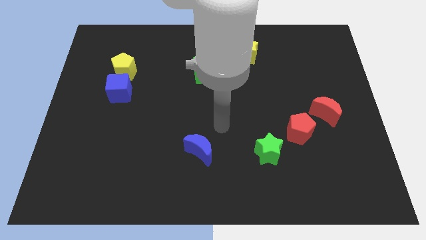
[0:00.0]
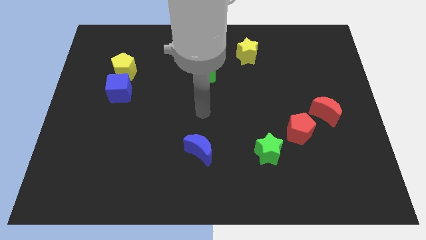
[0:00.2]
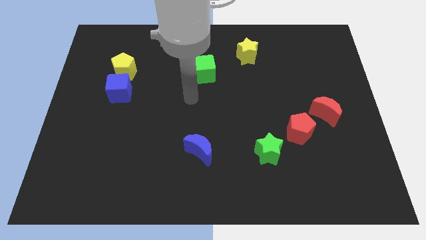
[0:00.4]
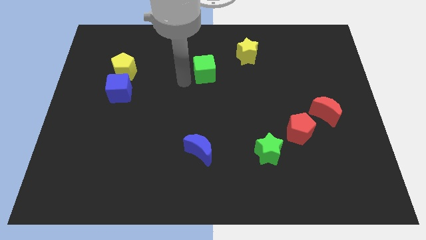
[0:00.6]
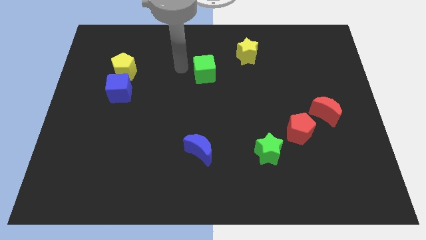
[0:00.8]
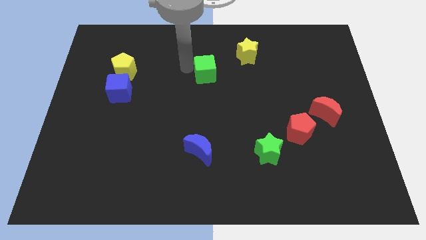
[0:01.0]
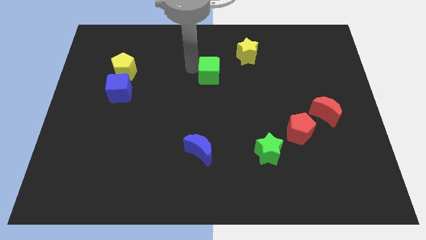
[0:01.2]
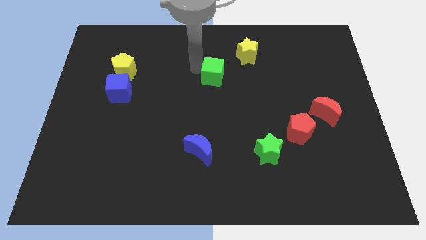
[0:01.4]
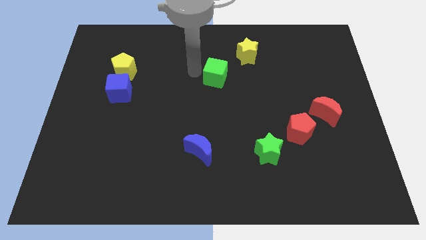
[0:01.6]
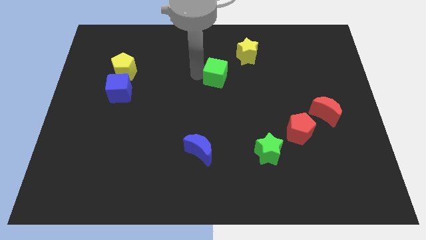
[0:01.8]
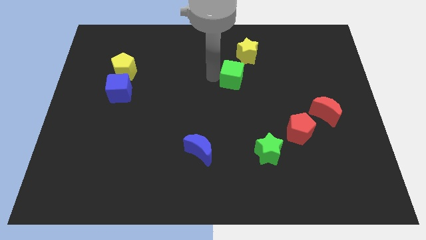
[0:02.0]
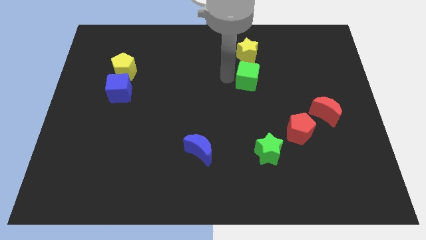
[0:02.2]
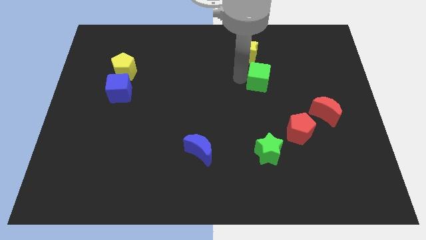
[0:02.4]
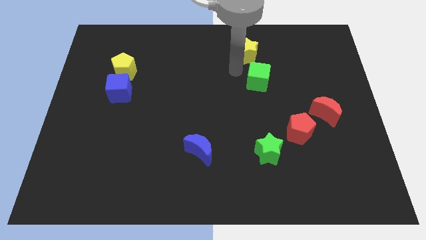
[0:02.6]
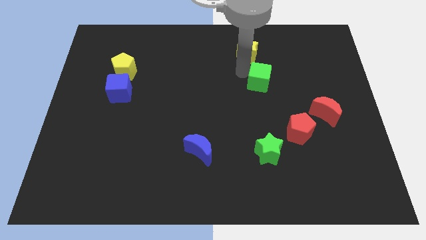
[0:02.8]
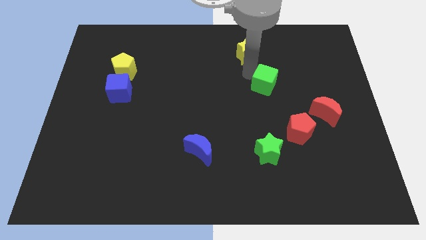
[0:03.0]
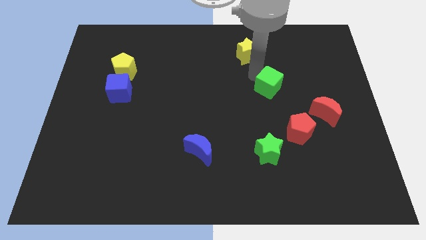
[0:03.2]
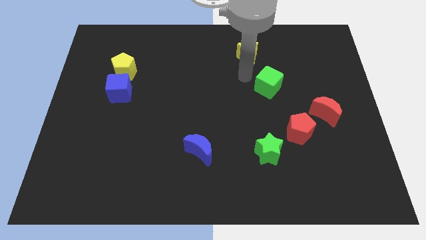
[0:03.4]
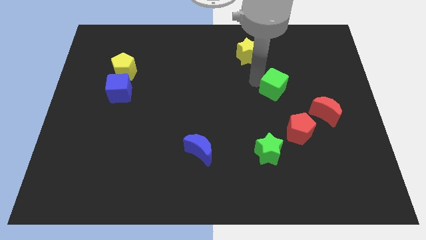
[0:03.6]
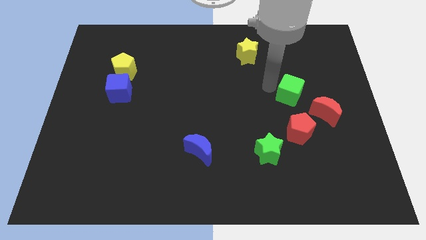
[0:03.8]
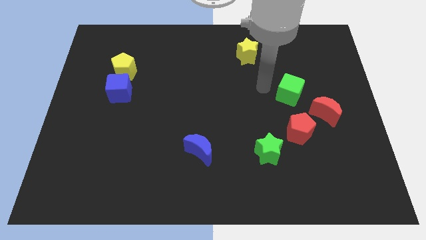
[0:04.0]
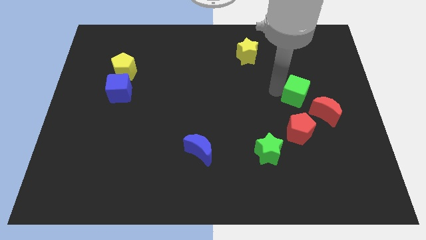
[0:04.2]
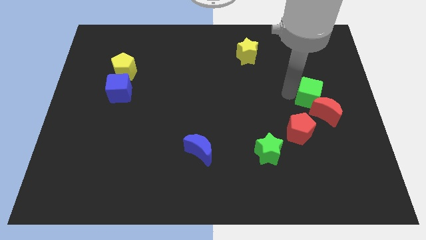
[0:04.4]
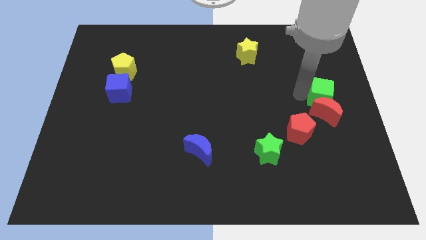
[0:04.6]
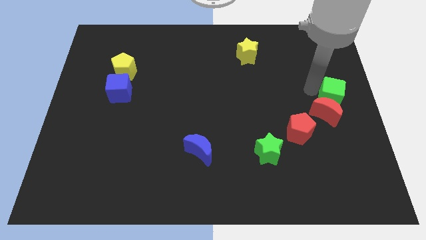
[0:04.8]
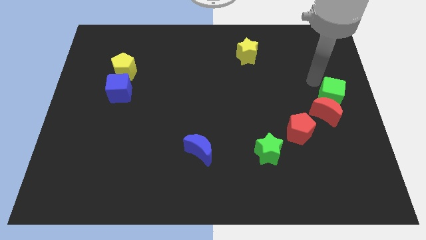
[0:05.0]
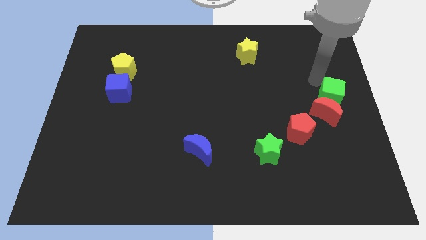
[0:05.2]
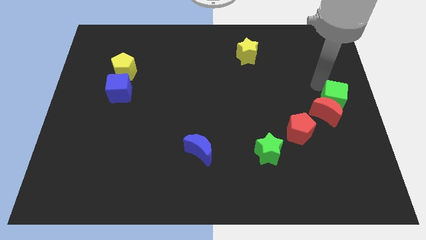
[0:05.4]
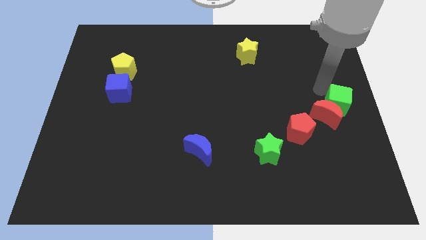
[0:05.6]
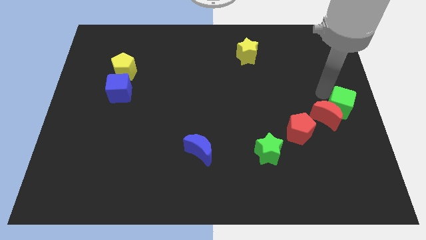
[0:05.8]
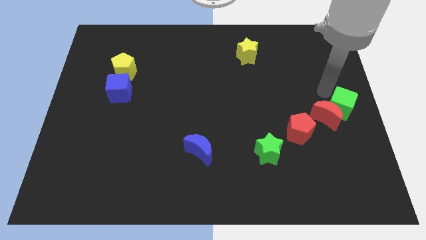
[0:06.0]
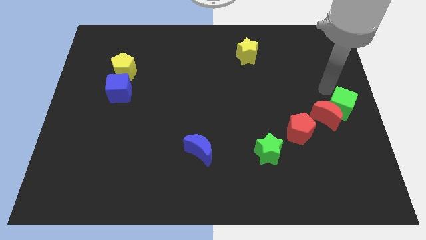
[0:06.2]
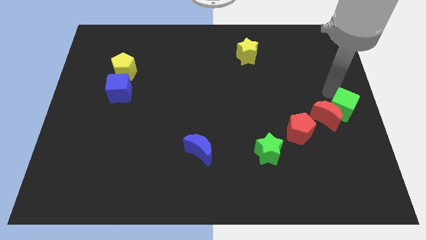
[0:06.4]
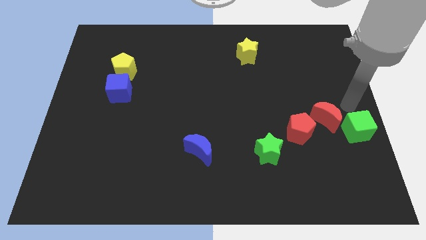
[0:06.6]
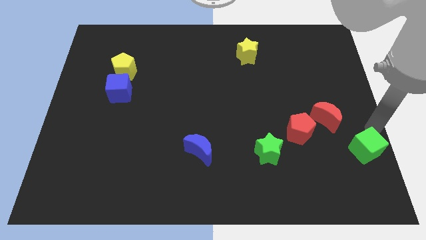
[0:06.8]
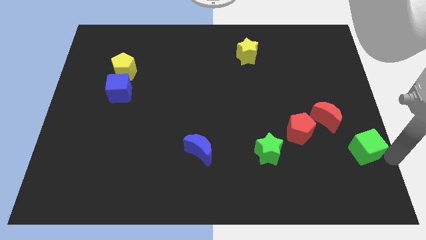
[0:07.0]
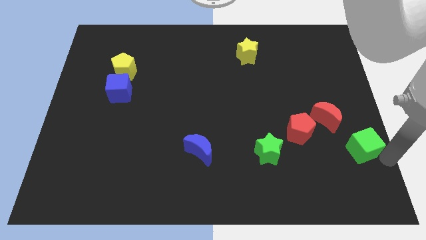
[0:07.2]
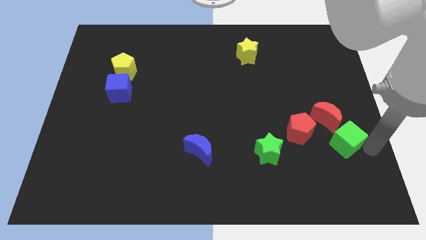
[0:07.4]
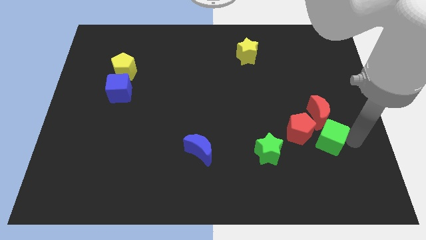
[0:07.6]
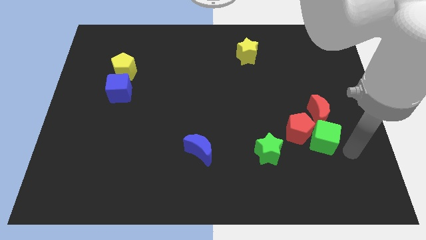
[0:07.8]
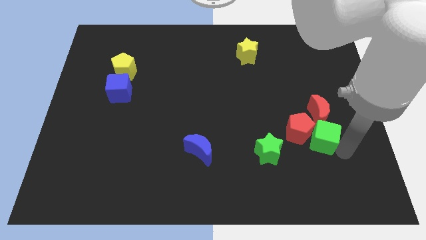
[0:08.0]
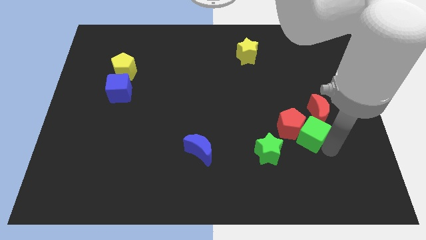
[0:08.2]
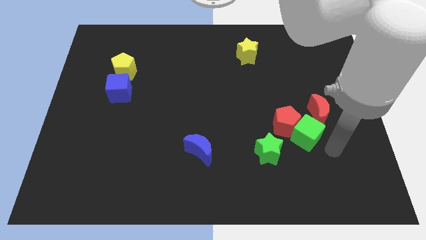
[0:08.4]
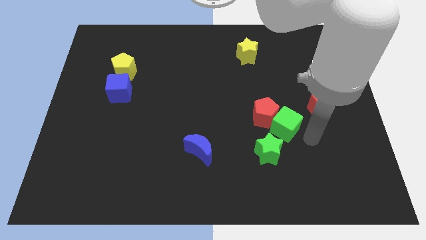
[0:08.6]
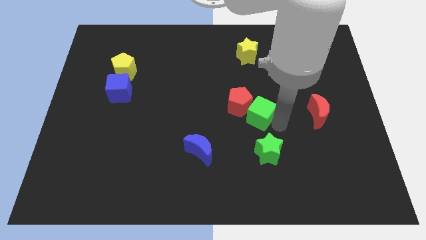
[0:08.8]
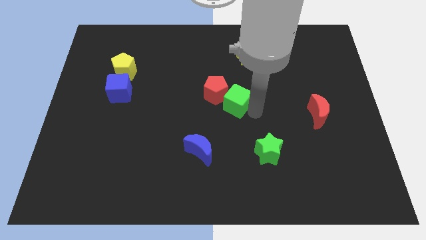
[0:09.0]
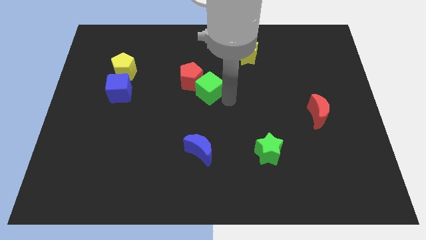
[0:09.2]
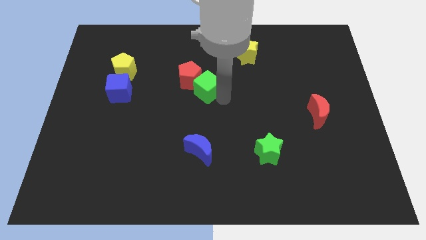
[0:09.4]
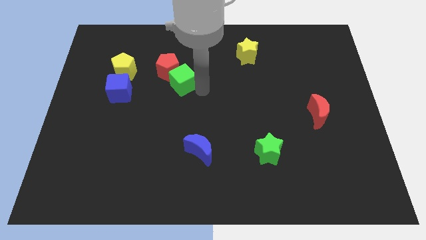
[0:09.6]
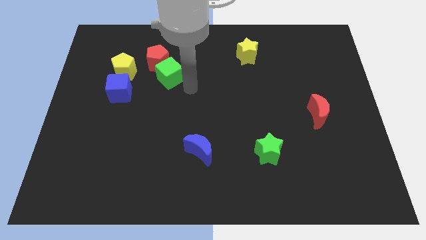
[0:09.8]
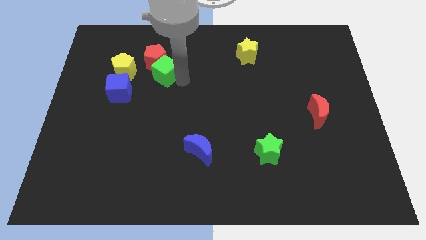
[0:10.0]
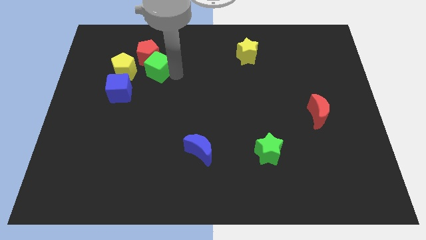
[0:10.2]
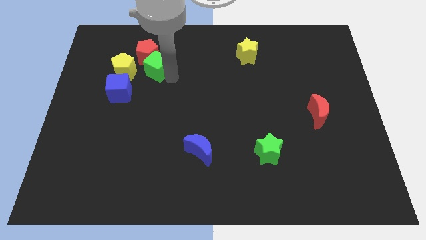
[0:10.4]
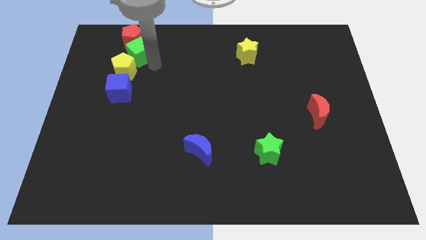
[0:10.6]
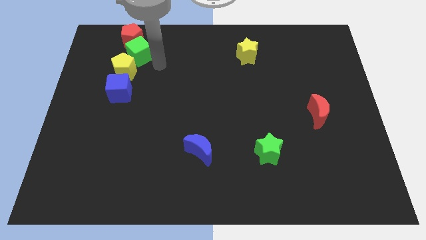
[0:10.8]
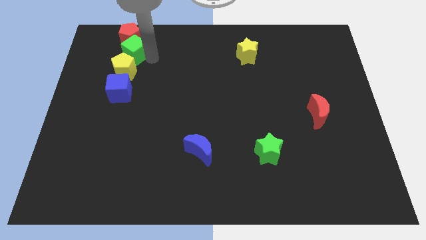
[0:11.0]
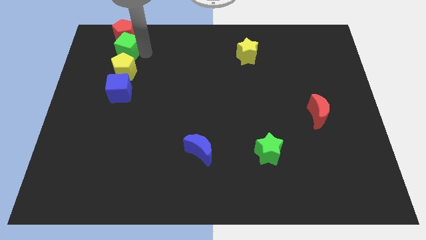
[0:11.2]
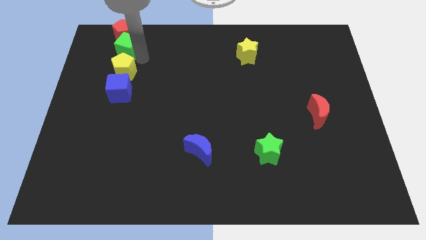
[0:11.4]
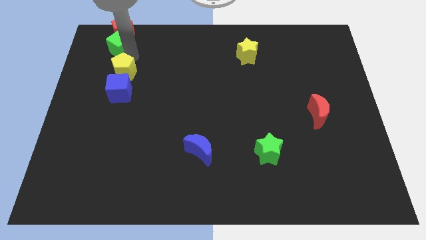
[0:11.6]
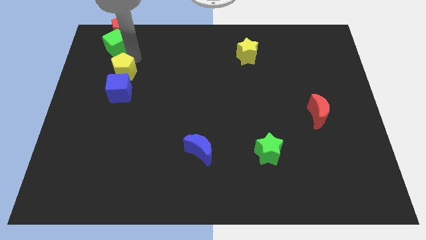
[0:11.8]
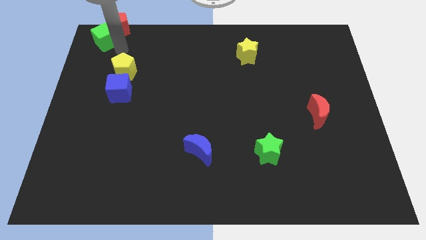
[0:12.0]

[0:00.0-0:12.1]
put the green cube to the top left

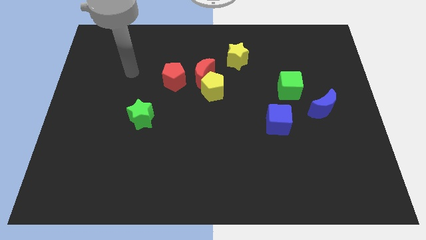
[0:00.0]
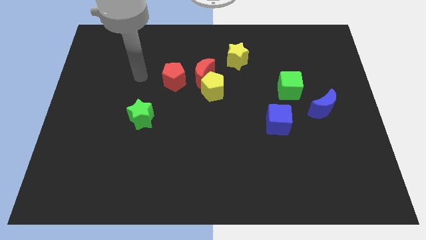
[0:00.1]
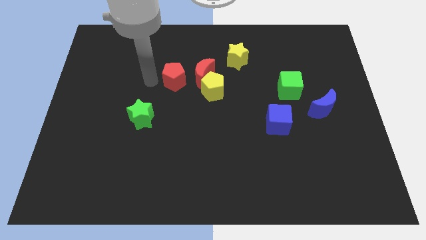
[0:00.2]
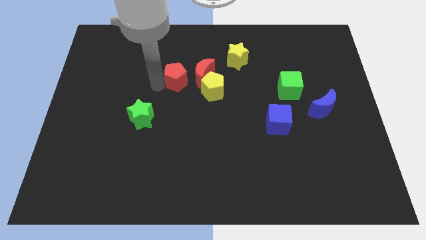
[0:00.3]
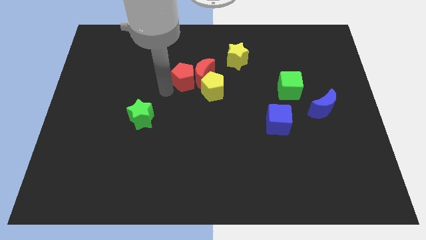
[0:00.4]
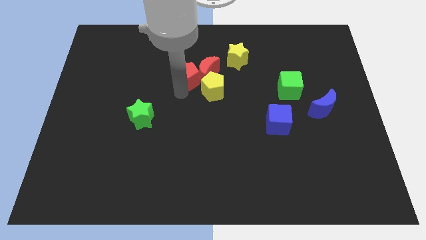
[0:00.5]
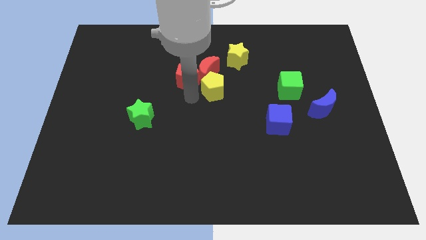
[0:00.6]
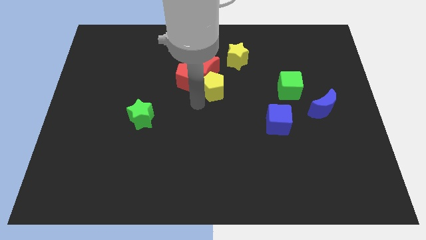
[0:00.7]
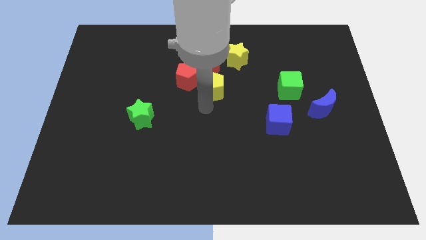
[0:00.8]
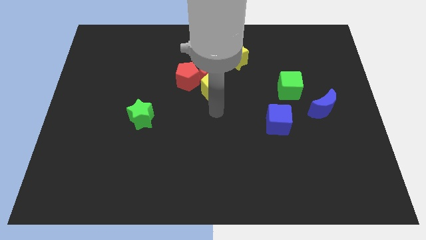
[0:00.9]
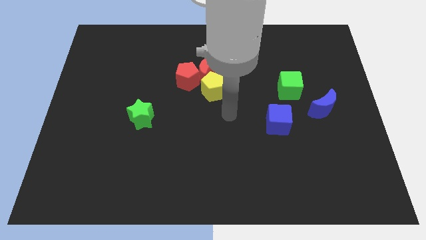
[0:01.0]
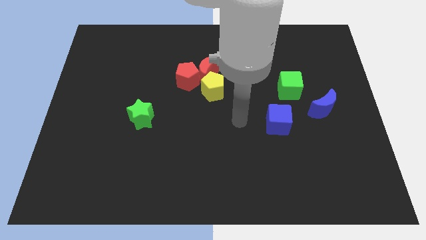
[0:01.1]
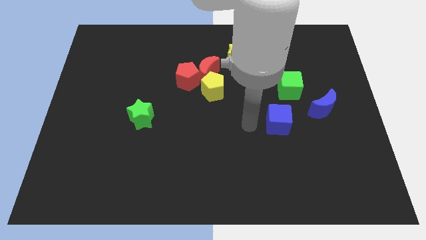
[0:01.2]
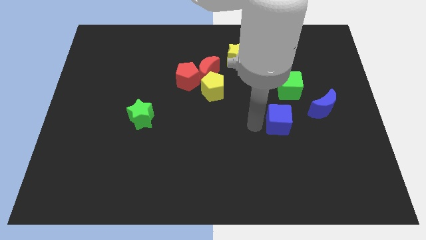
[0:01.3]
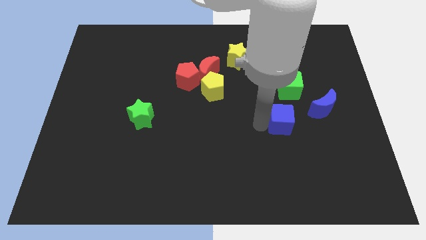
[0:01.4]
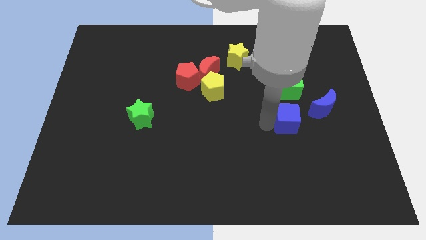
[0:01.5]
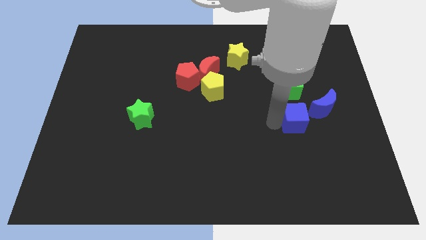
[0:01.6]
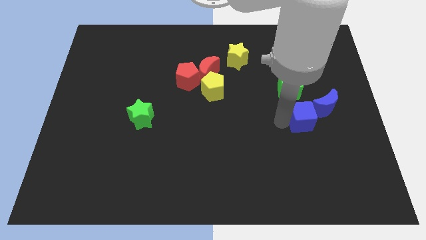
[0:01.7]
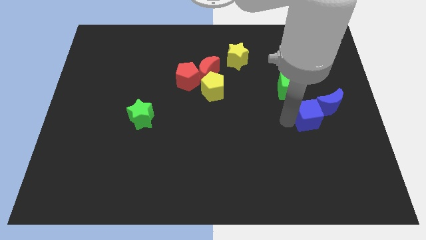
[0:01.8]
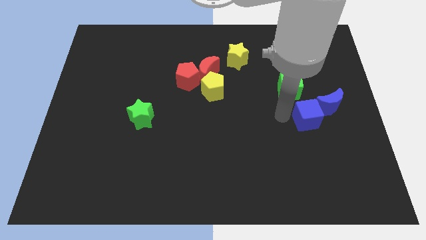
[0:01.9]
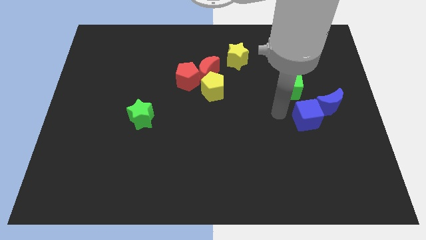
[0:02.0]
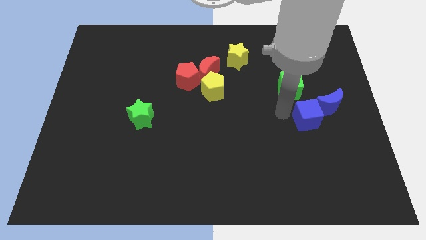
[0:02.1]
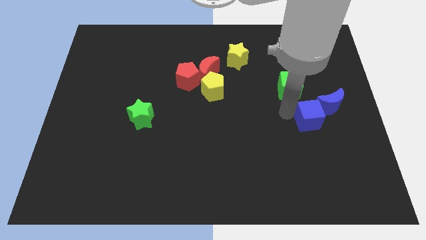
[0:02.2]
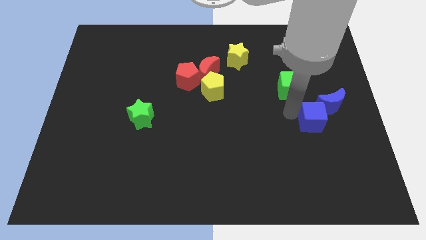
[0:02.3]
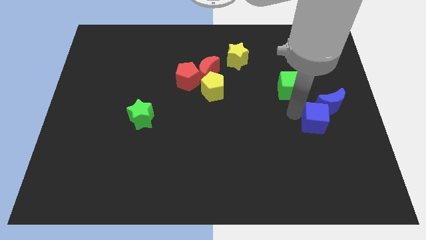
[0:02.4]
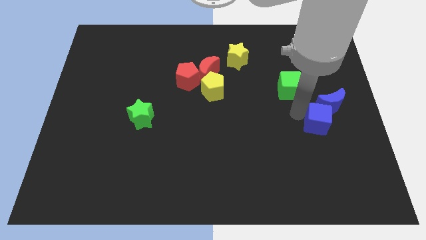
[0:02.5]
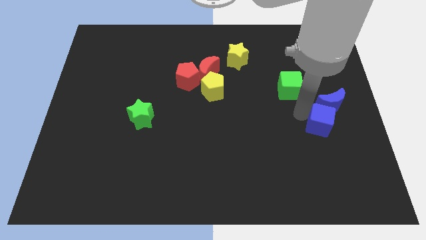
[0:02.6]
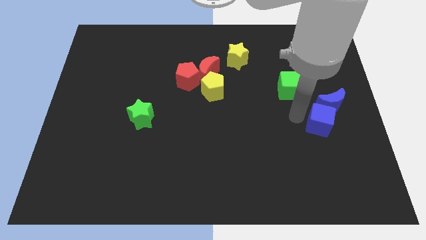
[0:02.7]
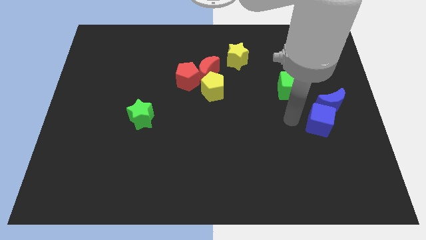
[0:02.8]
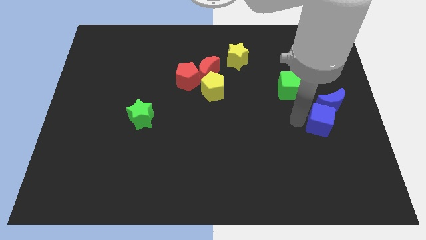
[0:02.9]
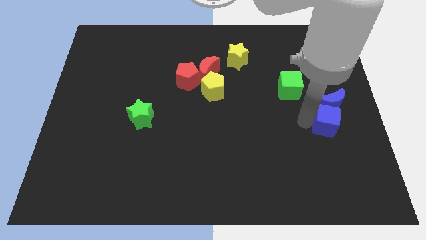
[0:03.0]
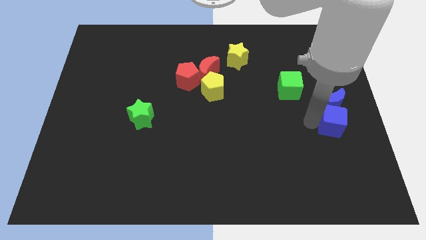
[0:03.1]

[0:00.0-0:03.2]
put the blue cube to the right side
